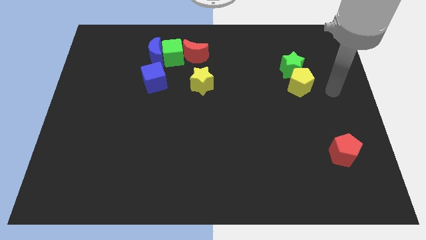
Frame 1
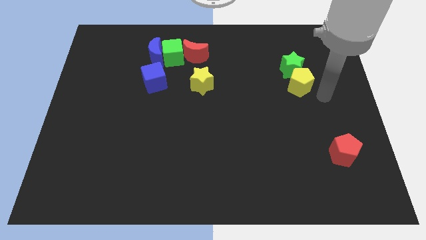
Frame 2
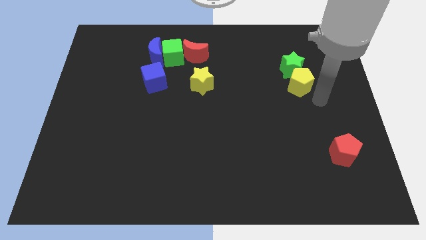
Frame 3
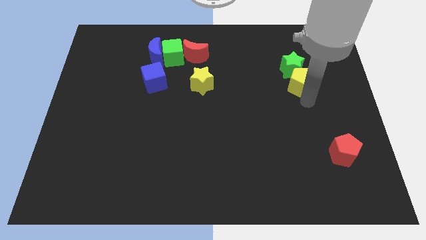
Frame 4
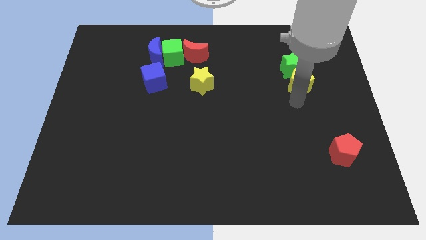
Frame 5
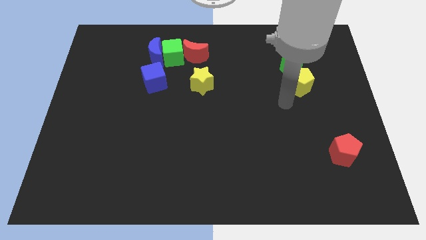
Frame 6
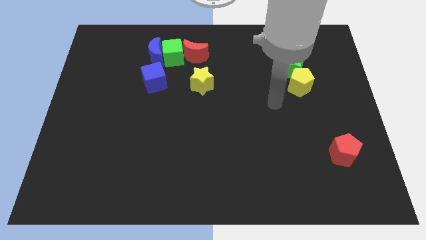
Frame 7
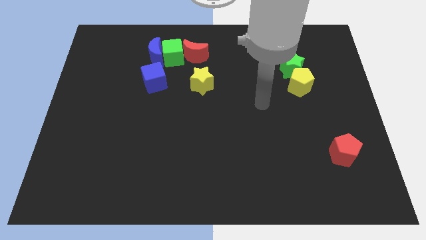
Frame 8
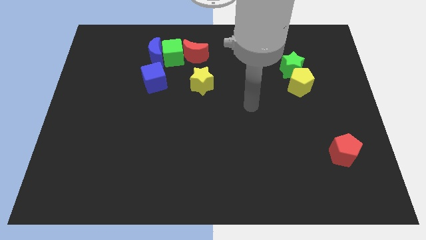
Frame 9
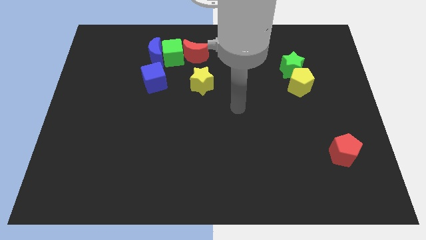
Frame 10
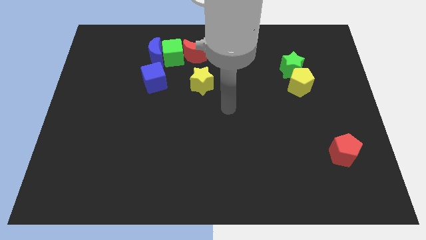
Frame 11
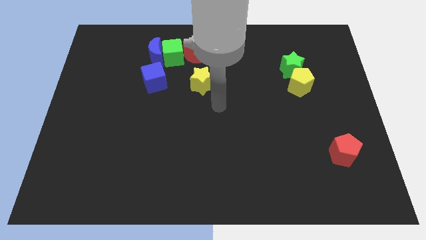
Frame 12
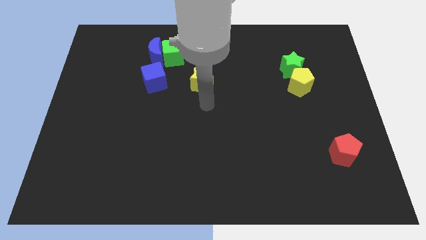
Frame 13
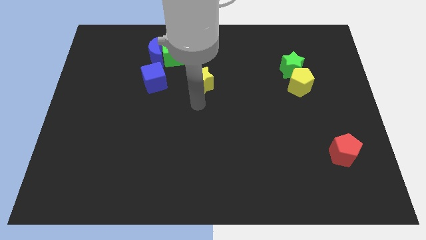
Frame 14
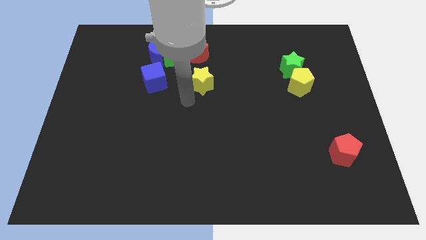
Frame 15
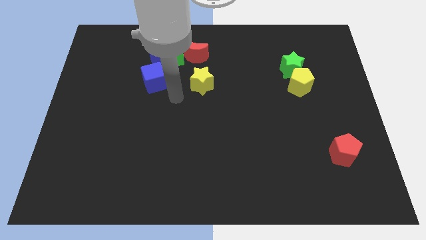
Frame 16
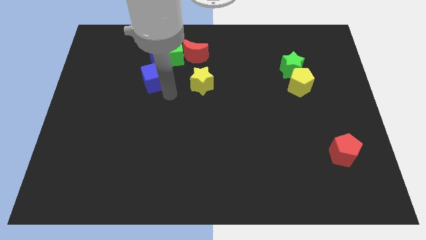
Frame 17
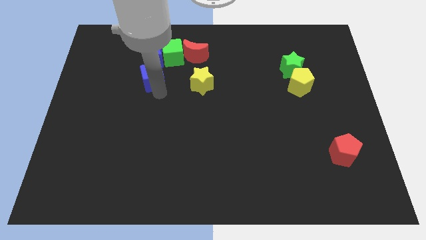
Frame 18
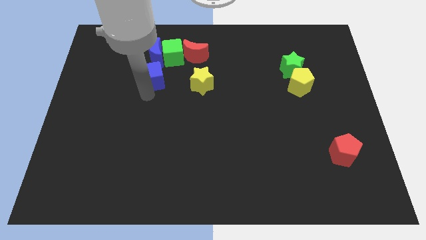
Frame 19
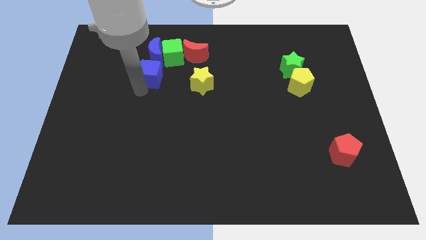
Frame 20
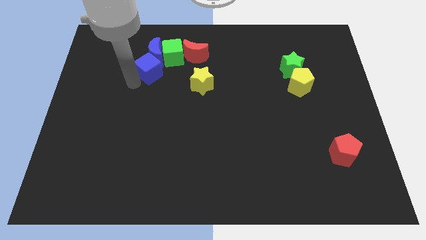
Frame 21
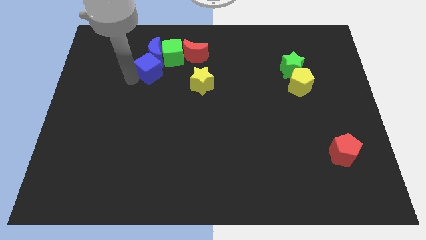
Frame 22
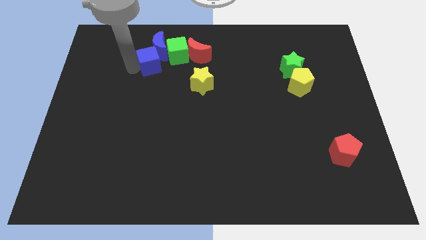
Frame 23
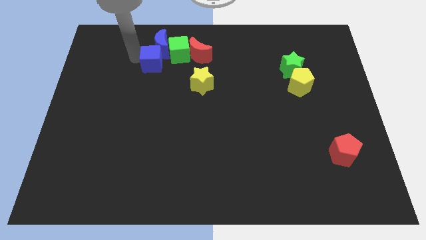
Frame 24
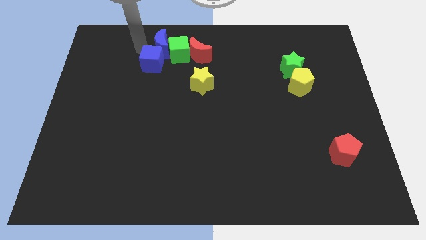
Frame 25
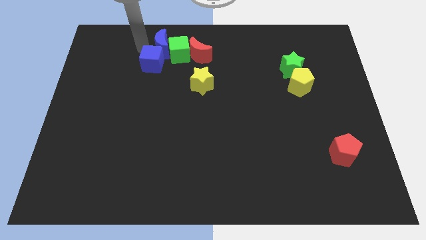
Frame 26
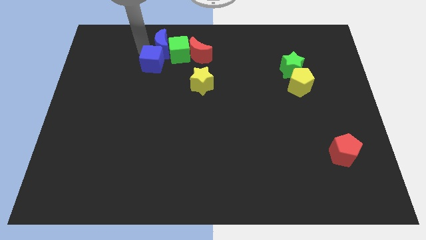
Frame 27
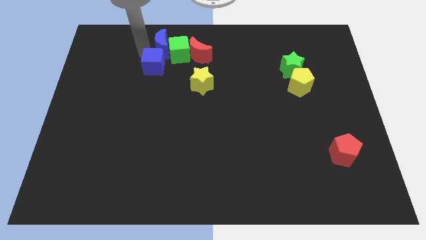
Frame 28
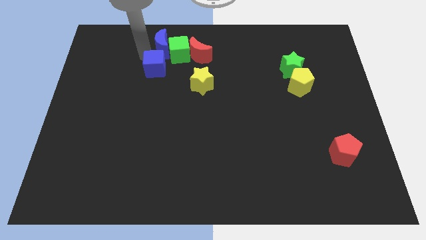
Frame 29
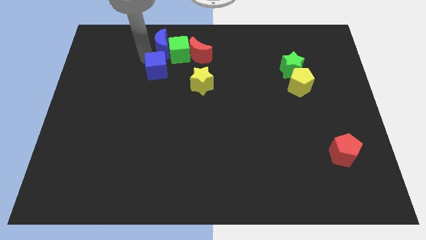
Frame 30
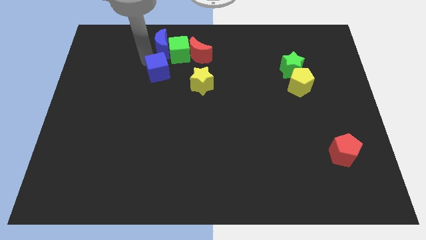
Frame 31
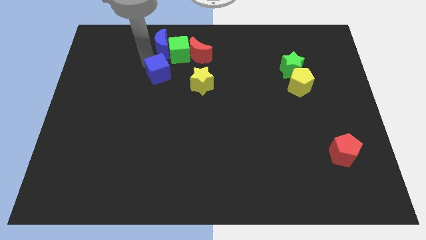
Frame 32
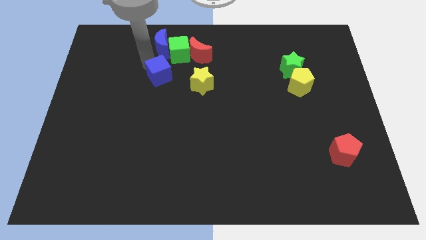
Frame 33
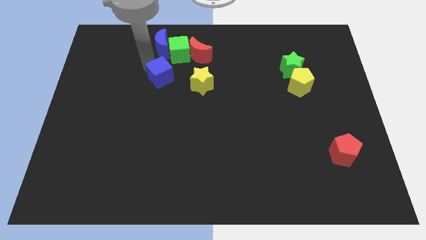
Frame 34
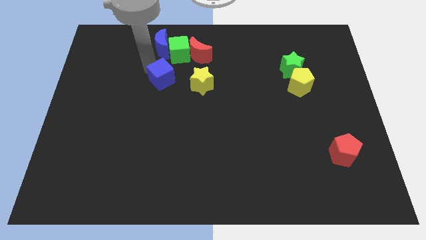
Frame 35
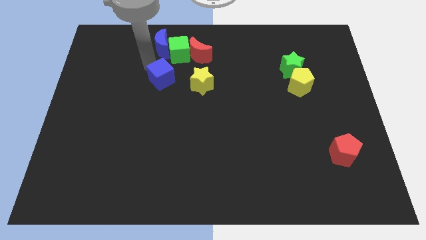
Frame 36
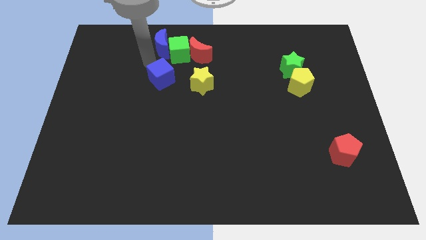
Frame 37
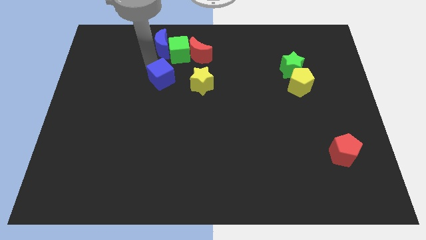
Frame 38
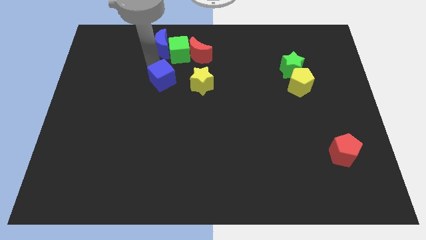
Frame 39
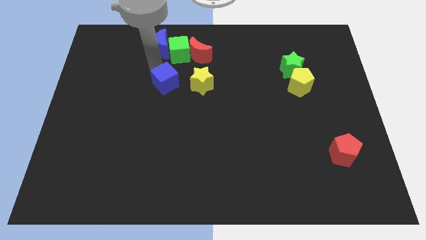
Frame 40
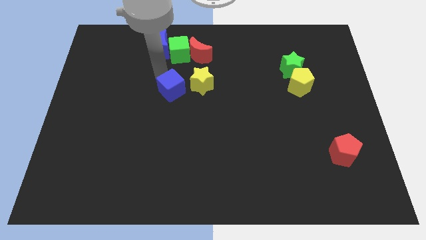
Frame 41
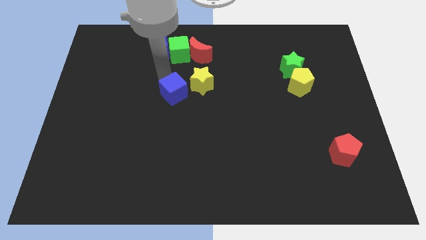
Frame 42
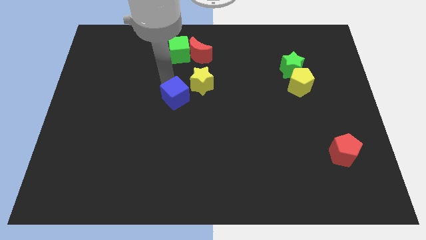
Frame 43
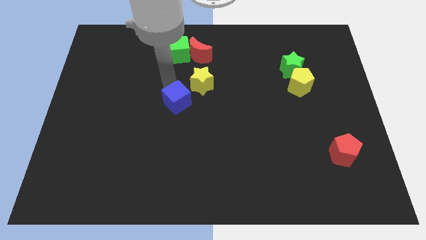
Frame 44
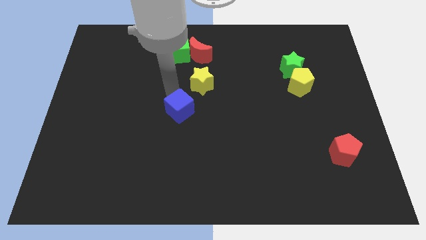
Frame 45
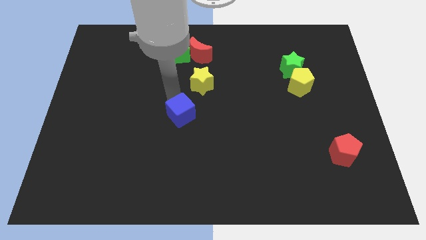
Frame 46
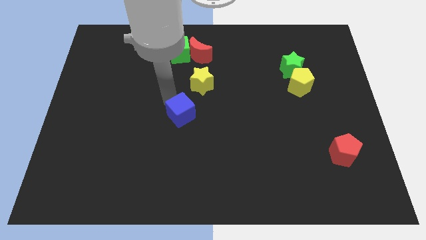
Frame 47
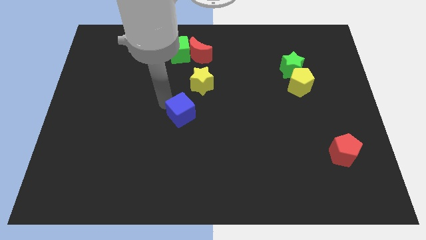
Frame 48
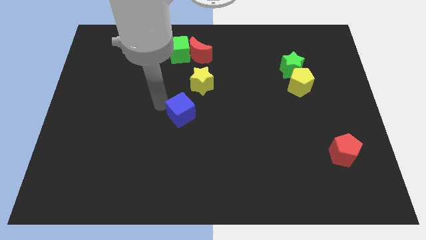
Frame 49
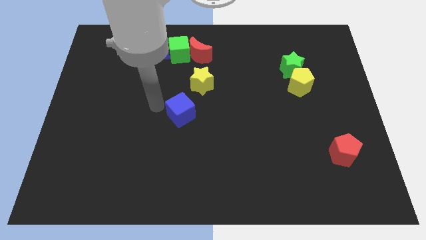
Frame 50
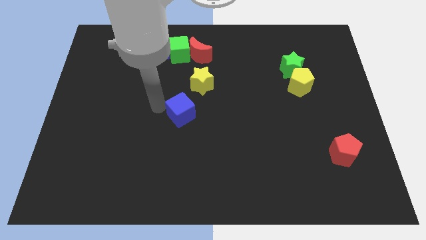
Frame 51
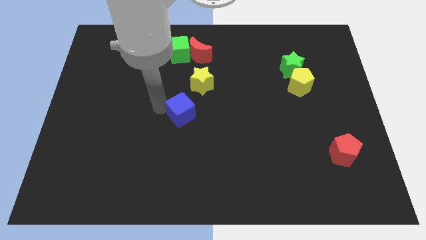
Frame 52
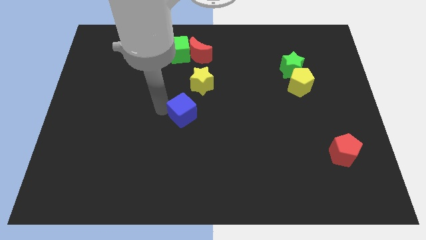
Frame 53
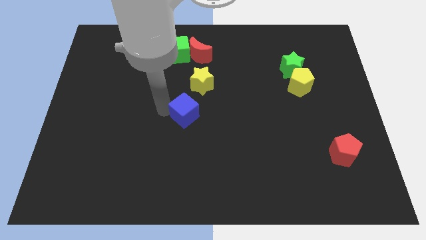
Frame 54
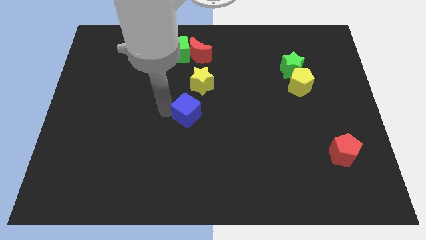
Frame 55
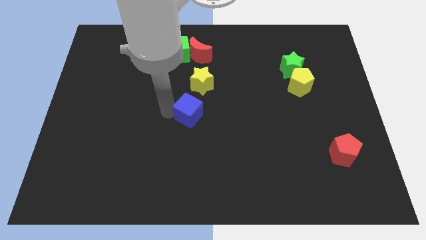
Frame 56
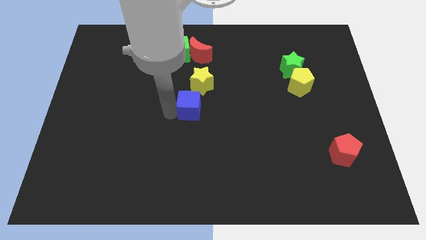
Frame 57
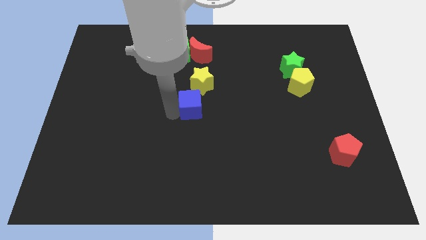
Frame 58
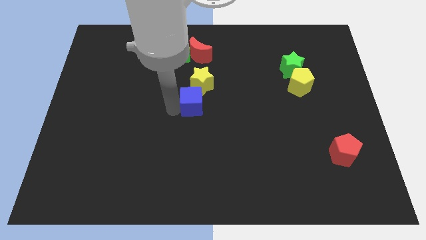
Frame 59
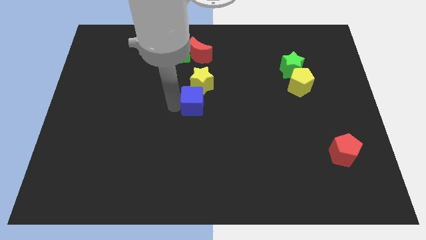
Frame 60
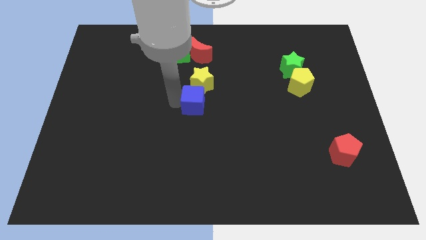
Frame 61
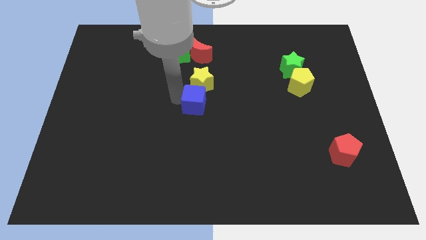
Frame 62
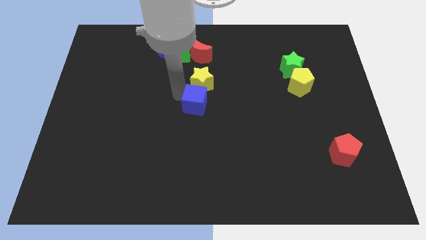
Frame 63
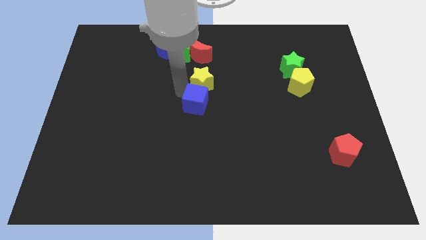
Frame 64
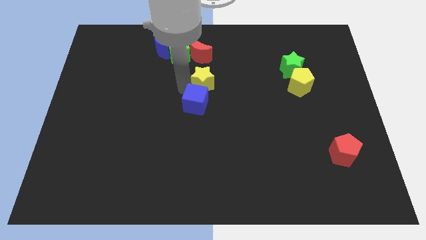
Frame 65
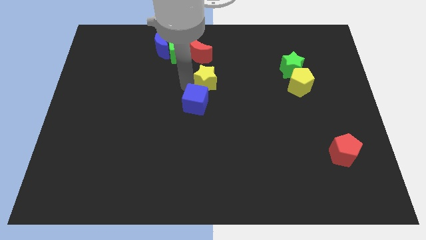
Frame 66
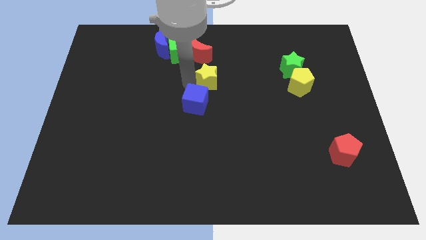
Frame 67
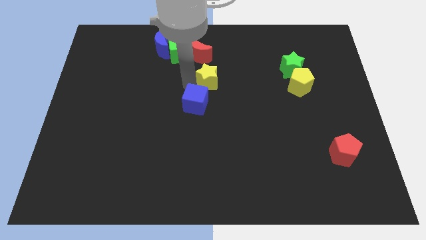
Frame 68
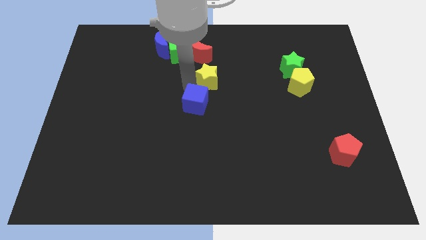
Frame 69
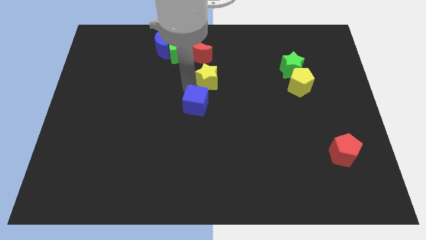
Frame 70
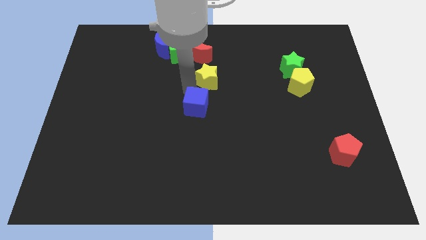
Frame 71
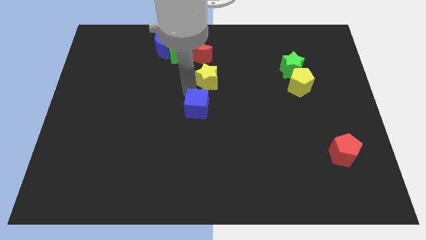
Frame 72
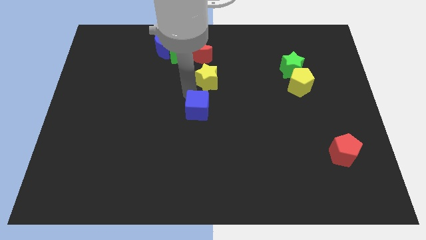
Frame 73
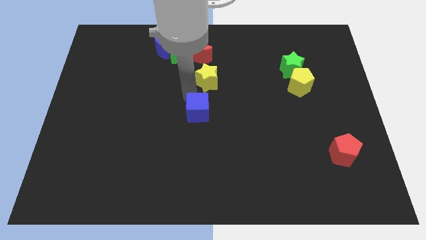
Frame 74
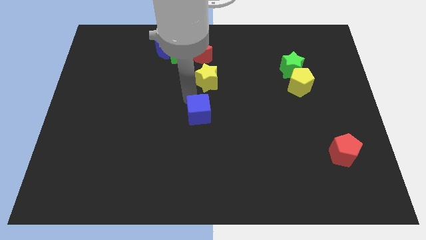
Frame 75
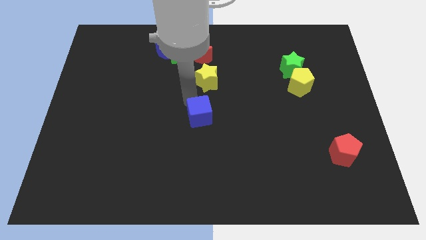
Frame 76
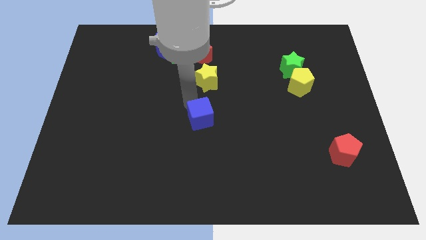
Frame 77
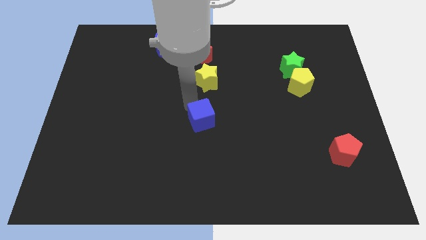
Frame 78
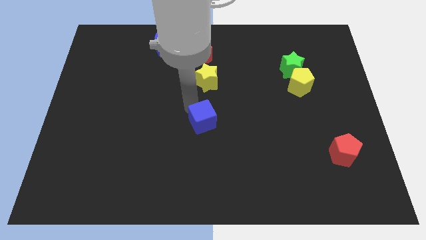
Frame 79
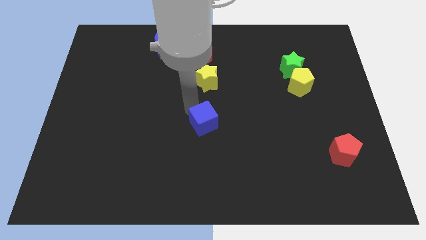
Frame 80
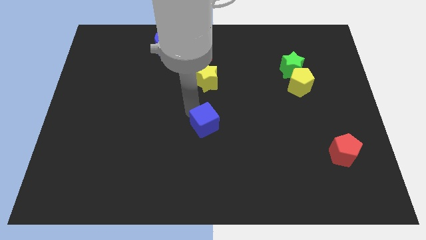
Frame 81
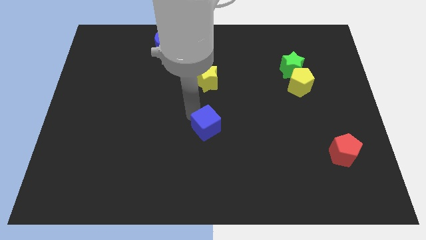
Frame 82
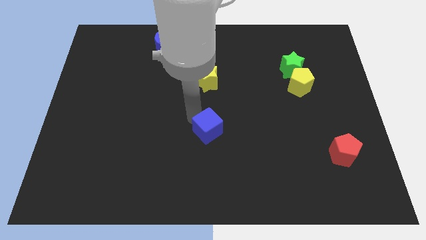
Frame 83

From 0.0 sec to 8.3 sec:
slide the blue cube diagonally down and to the right
